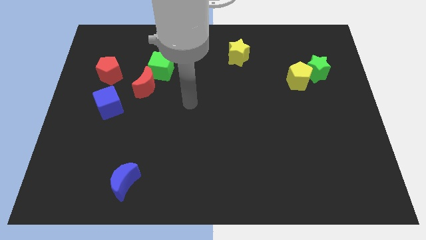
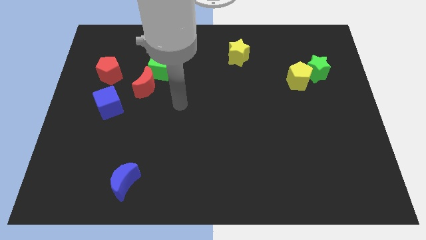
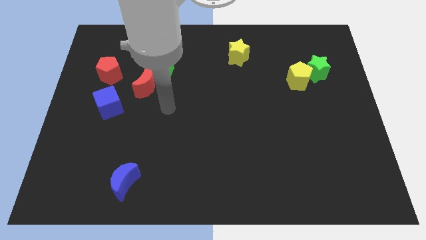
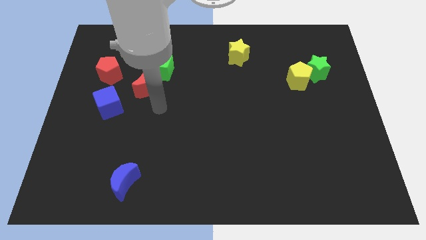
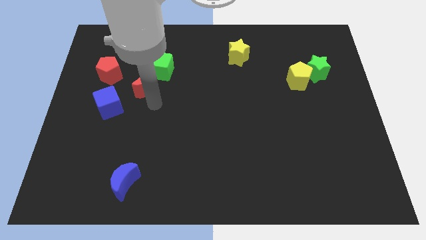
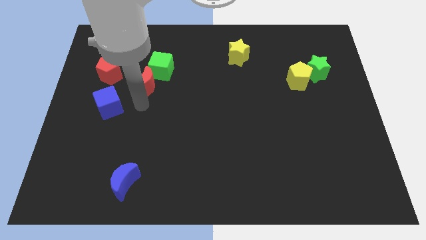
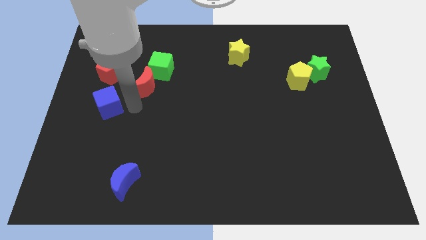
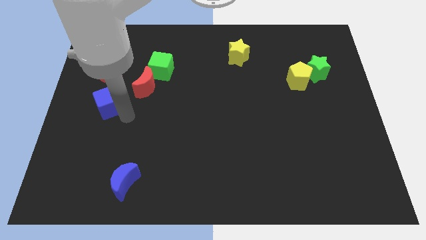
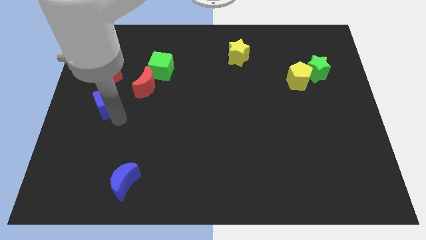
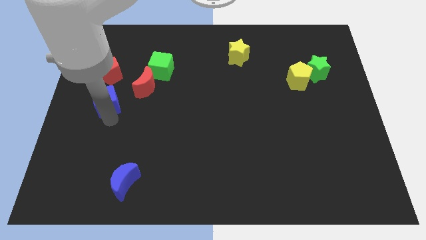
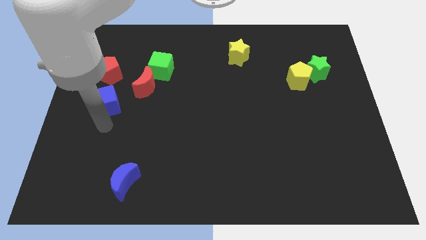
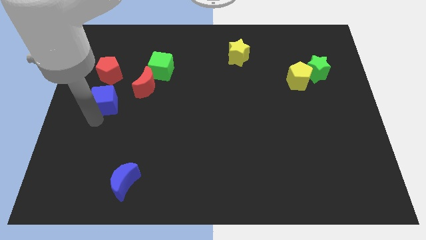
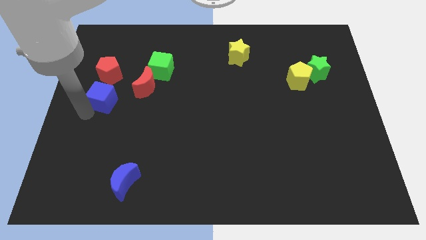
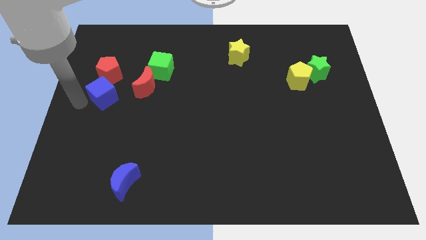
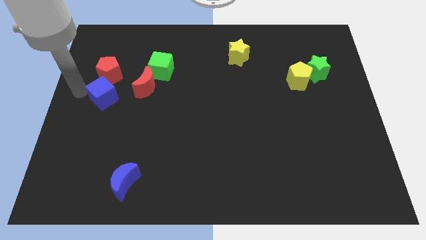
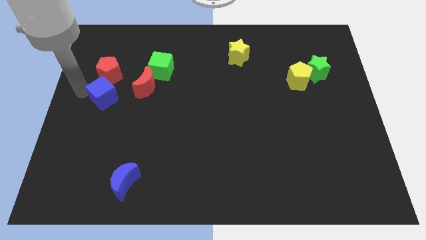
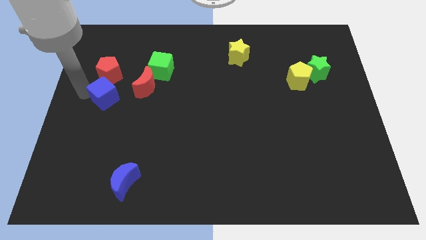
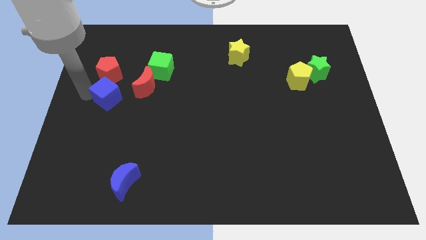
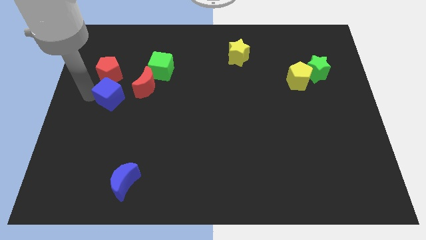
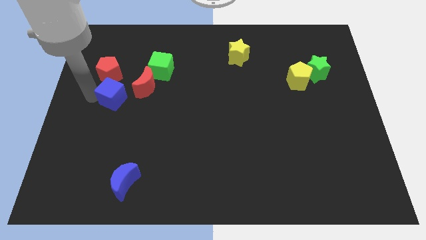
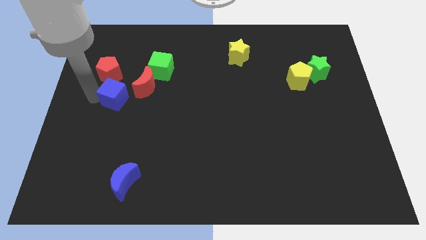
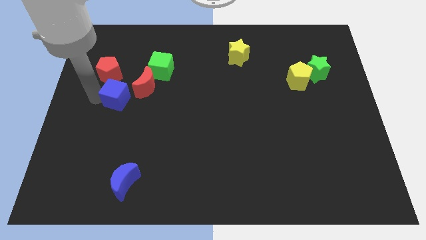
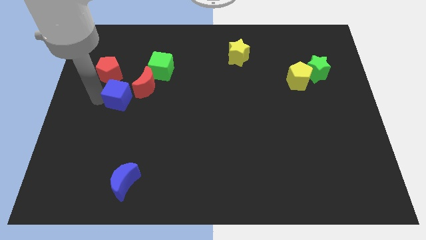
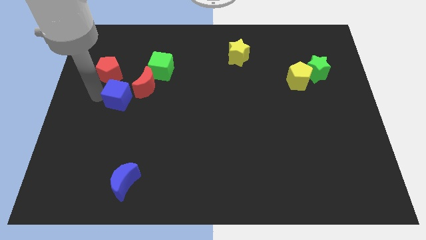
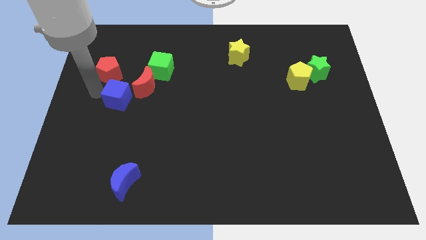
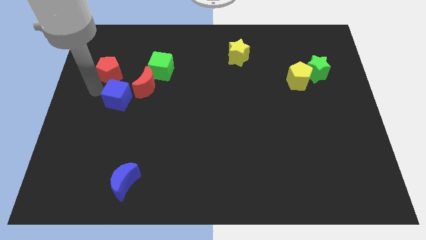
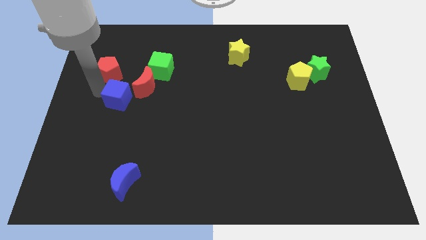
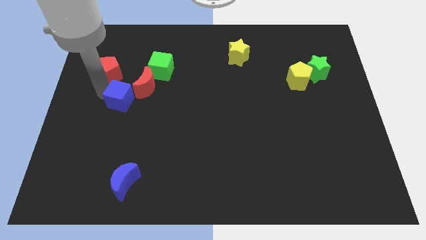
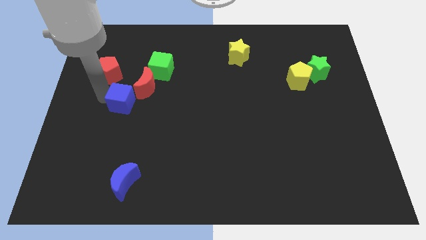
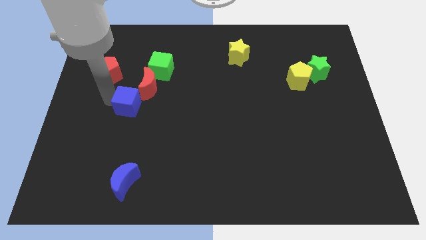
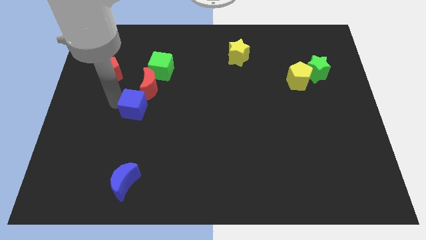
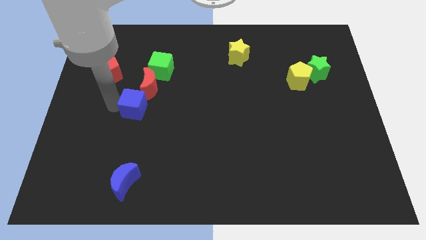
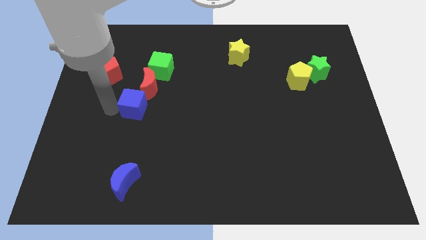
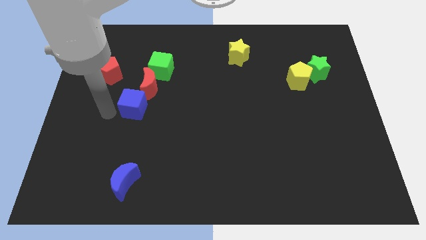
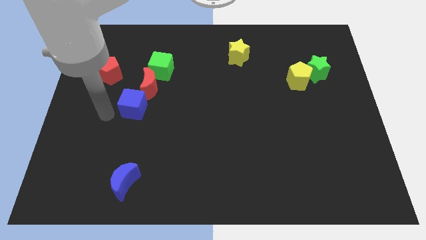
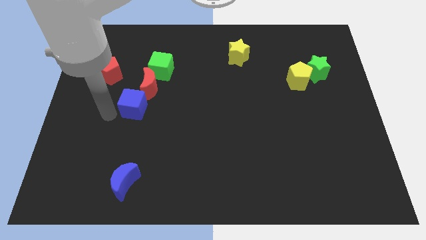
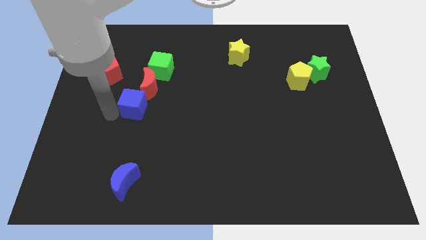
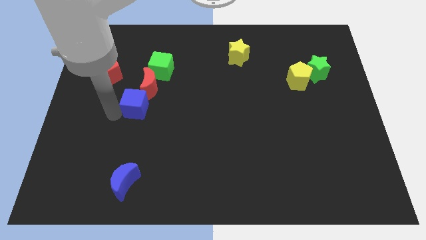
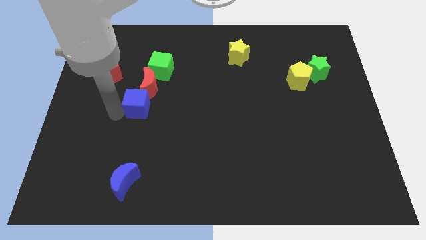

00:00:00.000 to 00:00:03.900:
slide the blue cube a little bit right

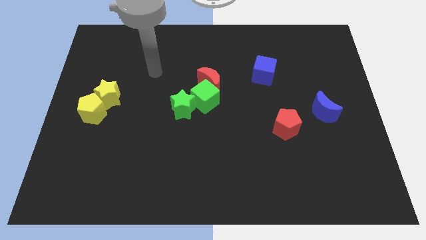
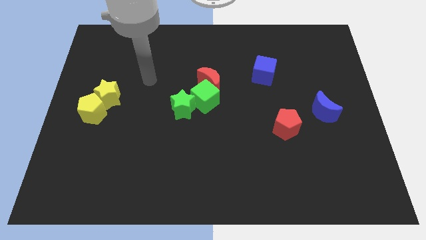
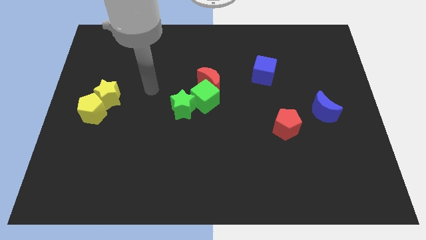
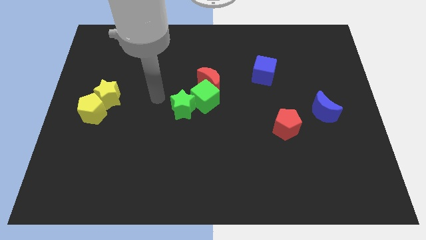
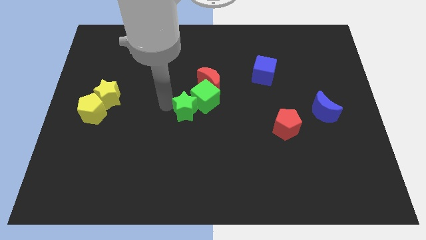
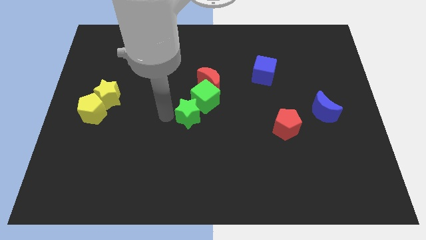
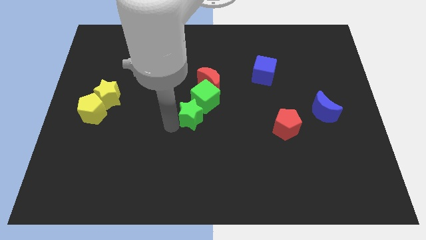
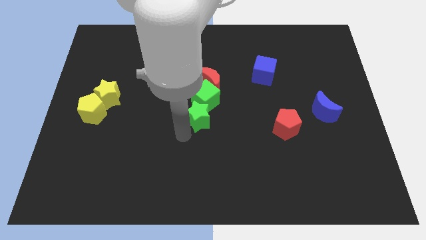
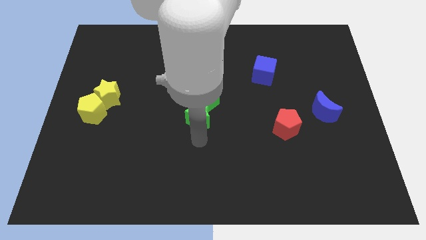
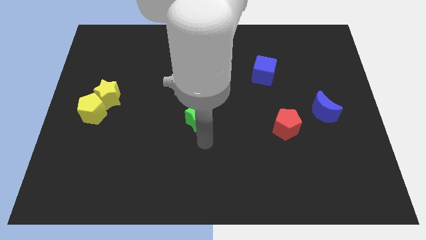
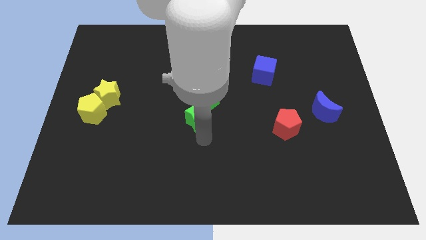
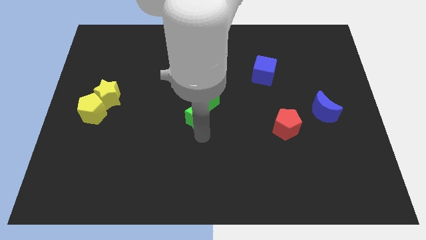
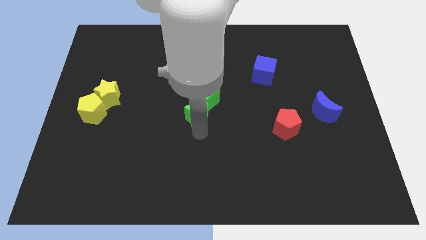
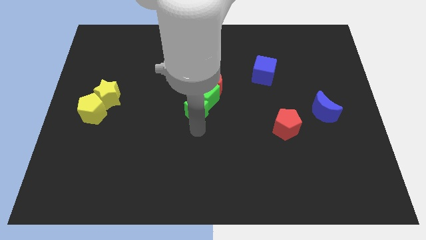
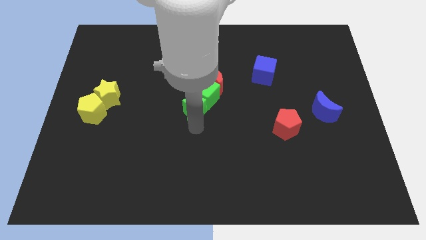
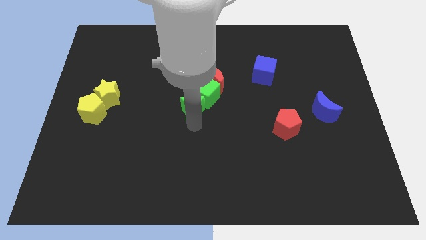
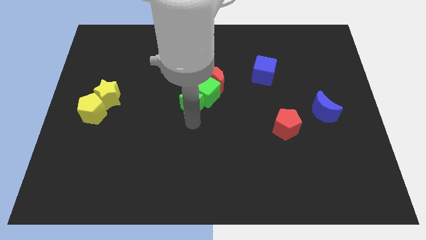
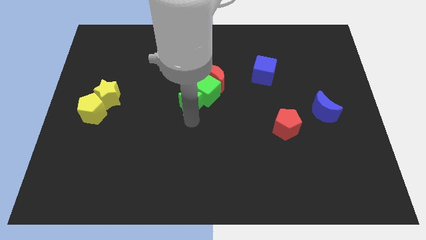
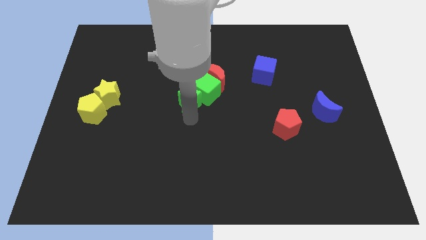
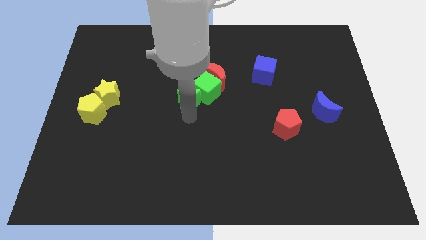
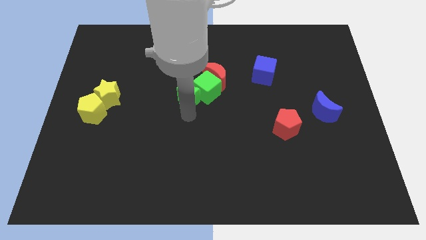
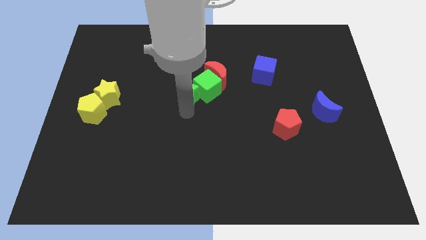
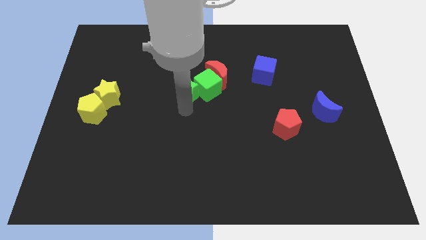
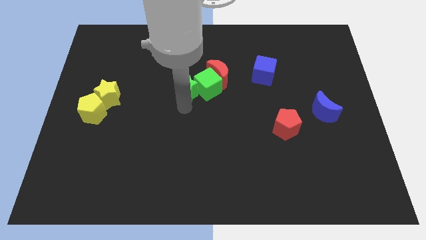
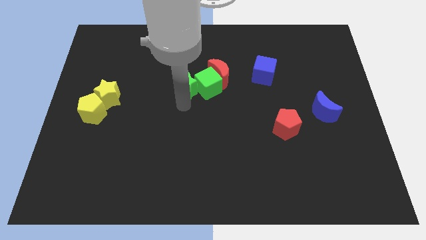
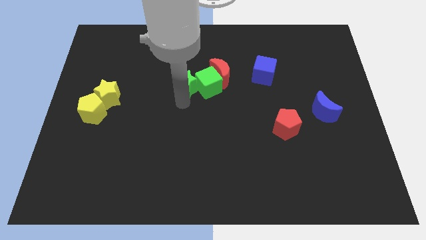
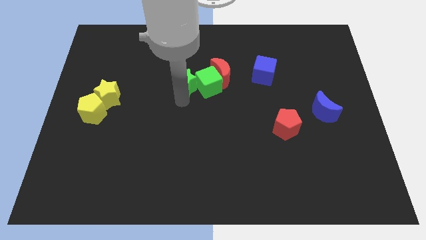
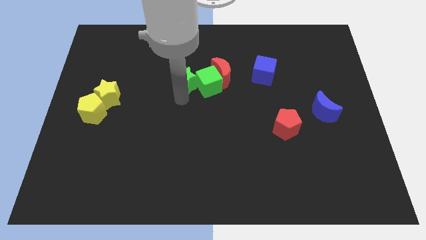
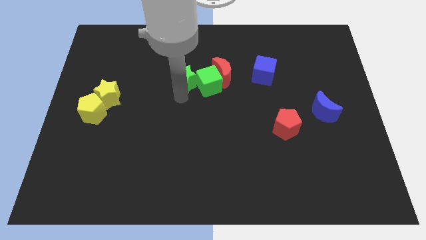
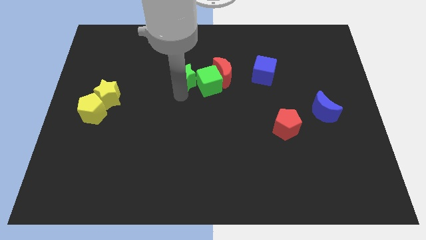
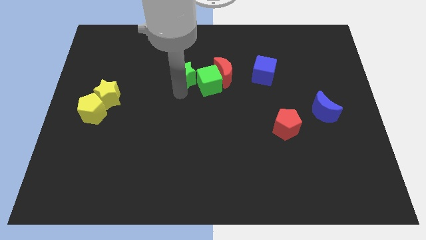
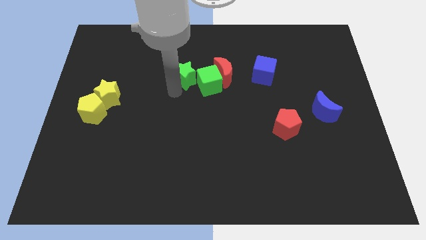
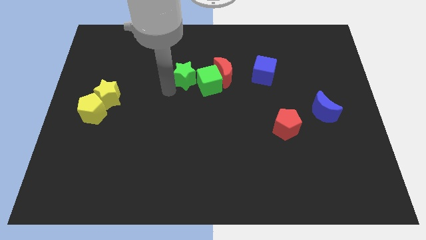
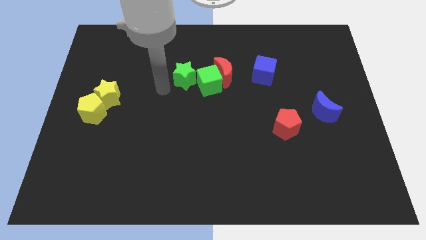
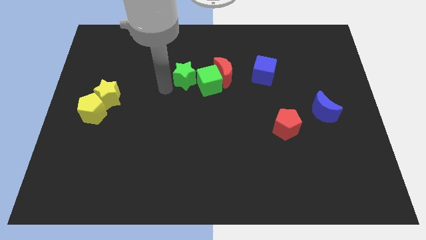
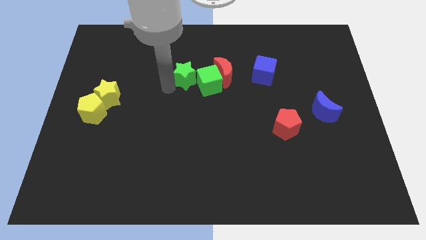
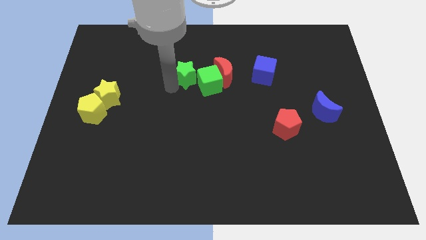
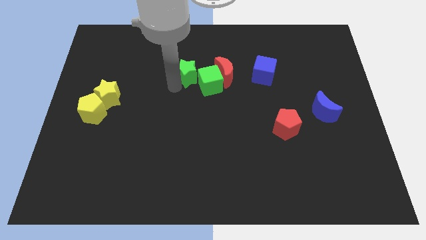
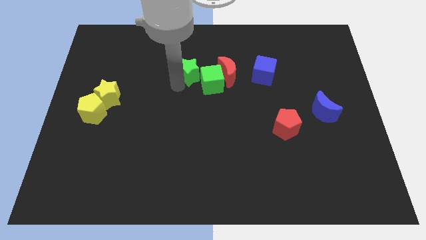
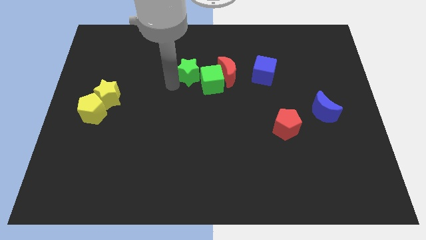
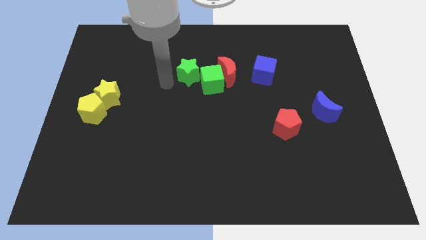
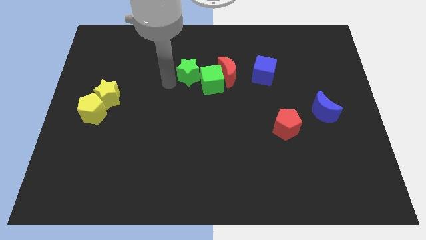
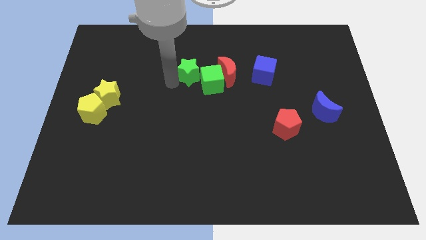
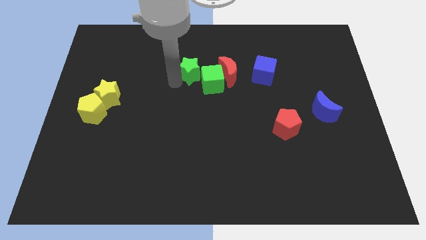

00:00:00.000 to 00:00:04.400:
move the green star diagonally up and to the right a little bit
